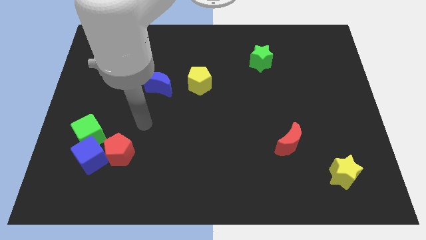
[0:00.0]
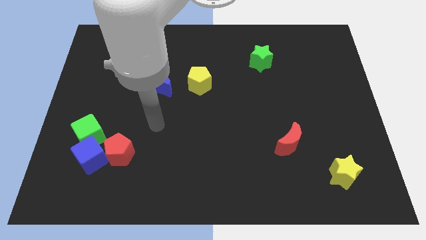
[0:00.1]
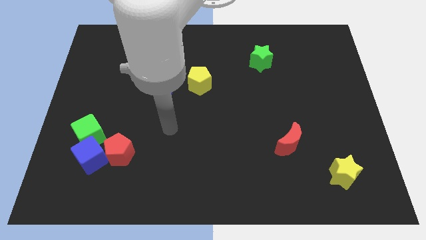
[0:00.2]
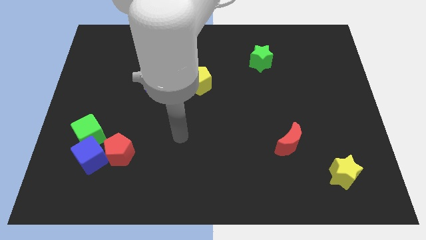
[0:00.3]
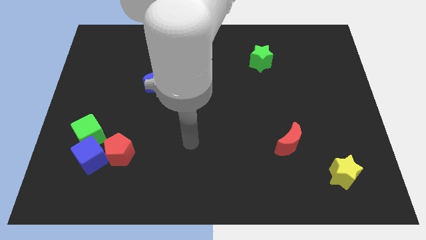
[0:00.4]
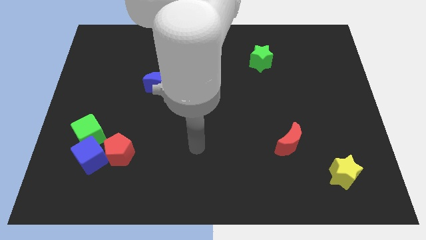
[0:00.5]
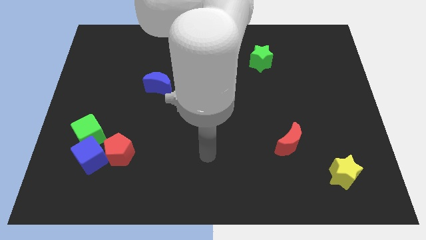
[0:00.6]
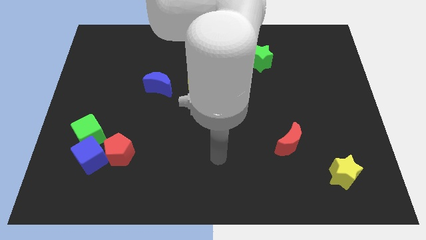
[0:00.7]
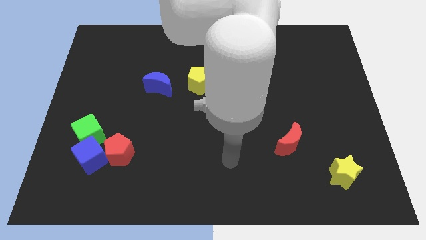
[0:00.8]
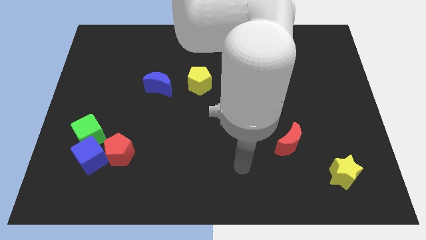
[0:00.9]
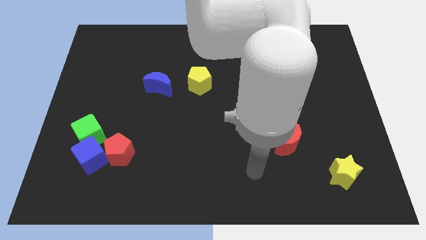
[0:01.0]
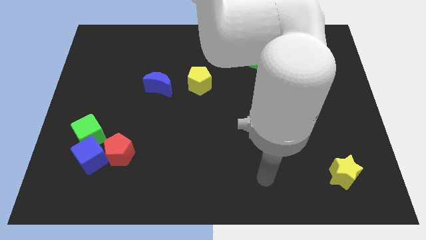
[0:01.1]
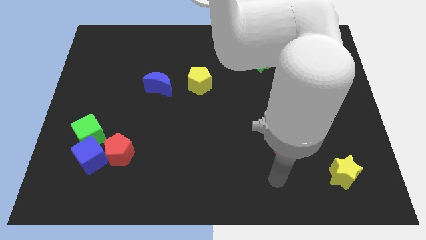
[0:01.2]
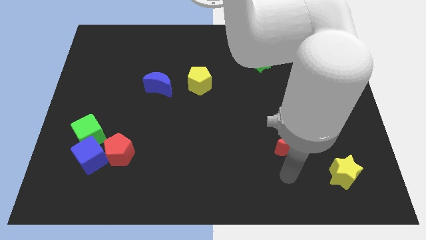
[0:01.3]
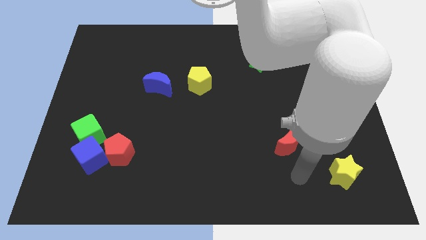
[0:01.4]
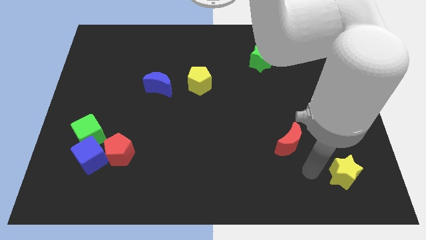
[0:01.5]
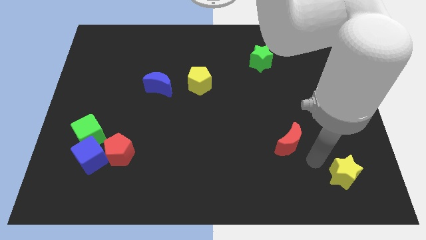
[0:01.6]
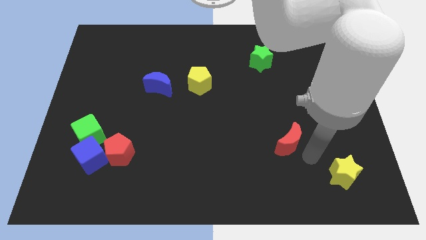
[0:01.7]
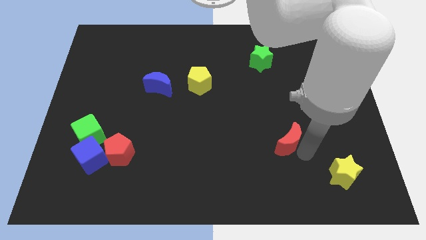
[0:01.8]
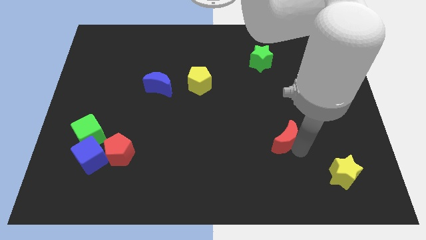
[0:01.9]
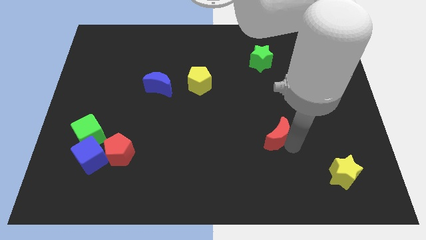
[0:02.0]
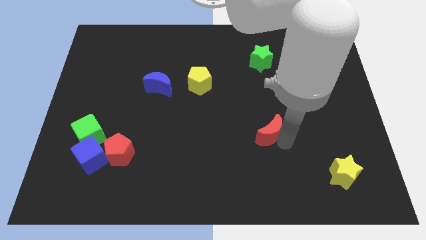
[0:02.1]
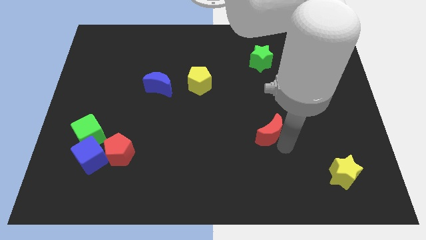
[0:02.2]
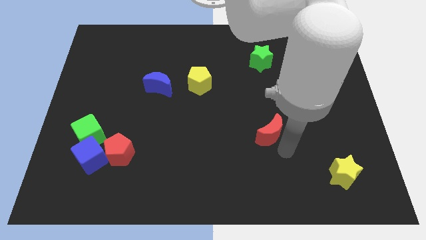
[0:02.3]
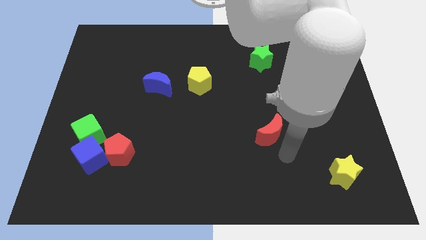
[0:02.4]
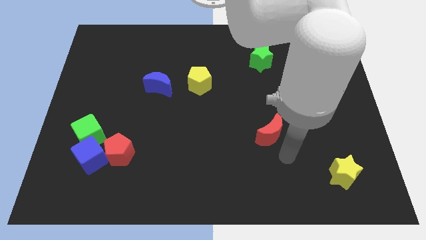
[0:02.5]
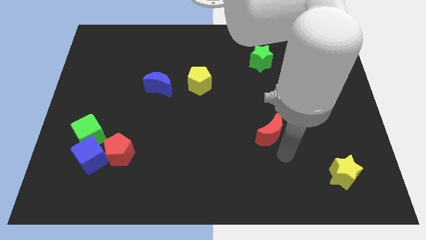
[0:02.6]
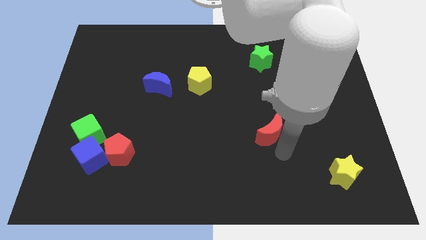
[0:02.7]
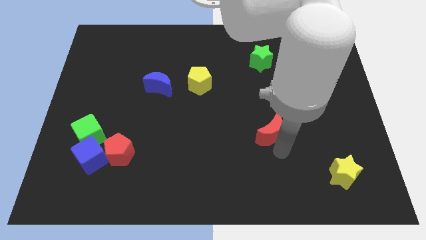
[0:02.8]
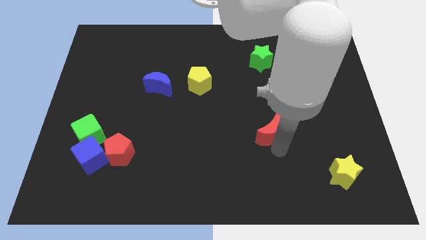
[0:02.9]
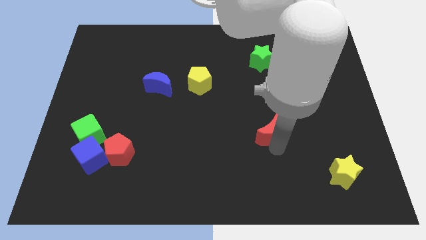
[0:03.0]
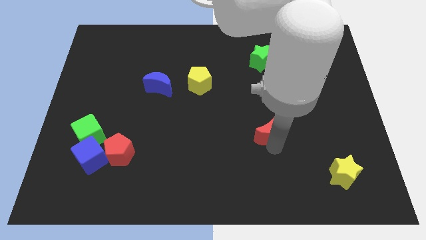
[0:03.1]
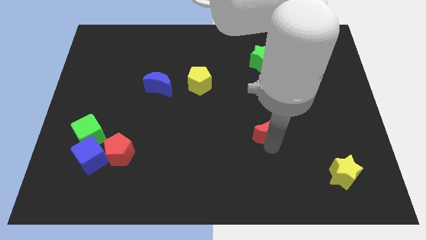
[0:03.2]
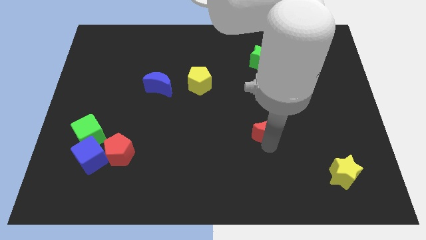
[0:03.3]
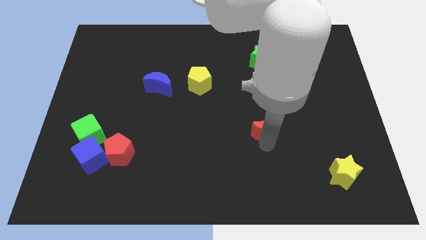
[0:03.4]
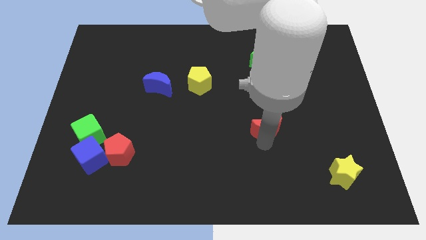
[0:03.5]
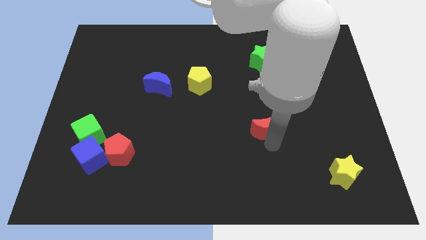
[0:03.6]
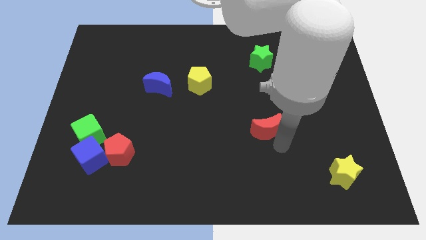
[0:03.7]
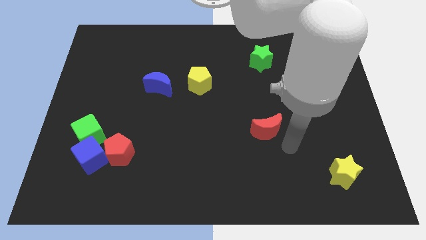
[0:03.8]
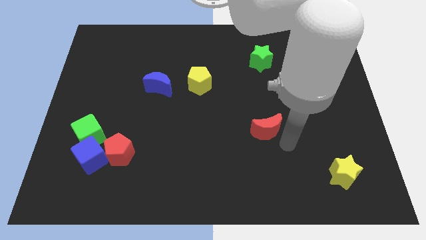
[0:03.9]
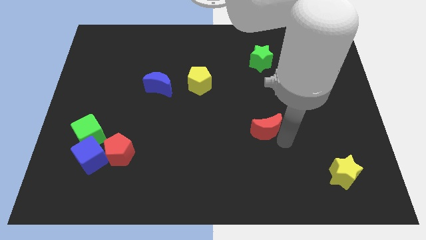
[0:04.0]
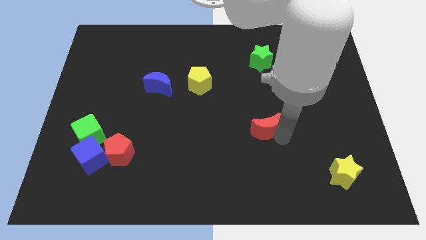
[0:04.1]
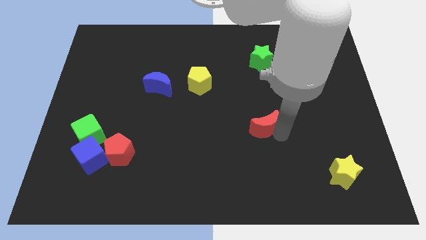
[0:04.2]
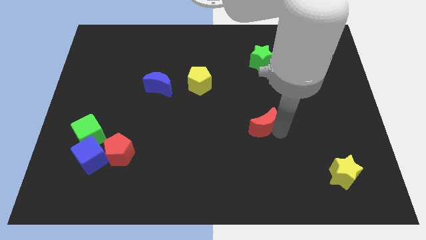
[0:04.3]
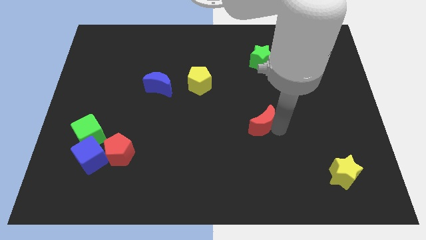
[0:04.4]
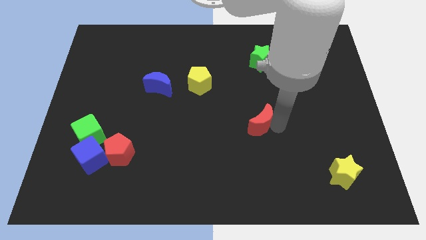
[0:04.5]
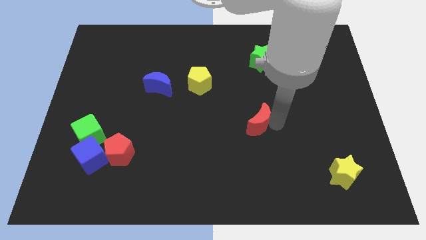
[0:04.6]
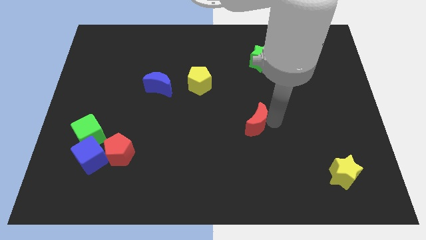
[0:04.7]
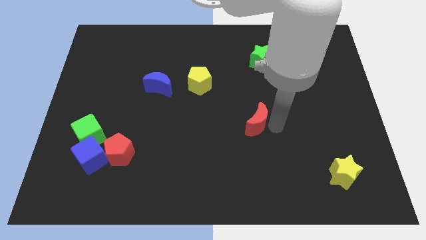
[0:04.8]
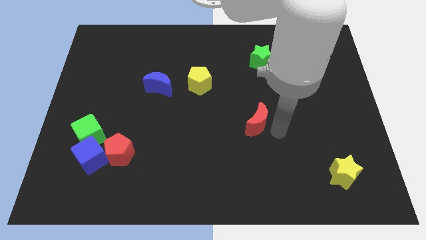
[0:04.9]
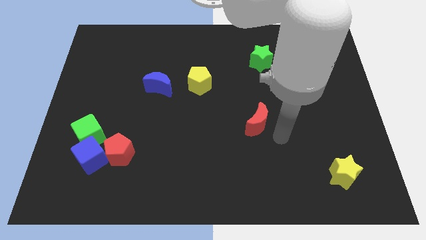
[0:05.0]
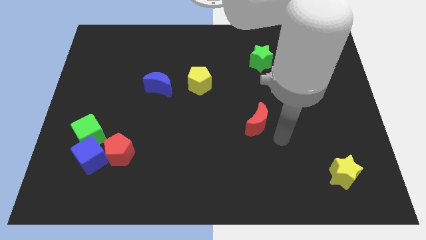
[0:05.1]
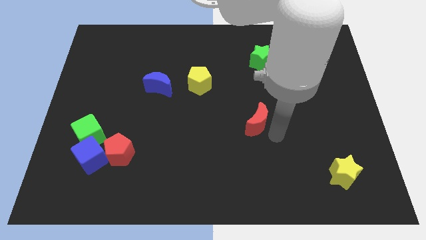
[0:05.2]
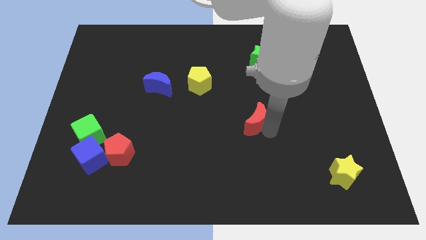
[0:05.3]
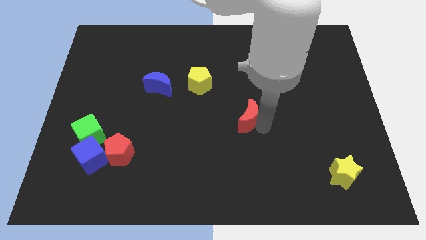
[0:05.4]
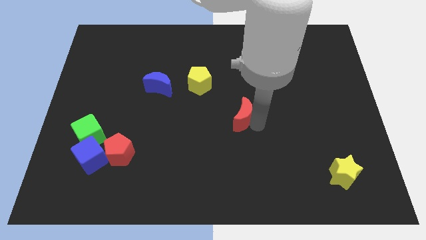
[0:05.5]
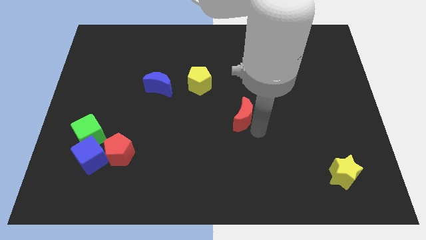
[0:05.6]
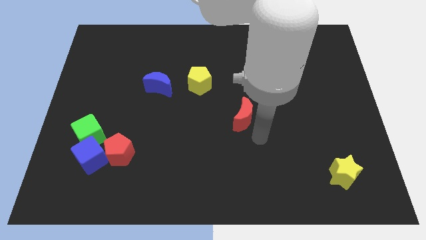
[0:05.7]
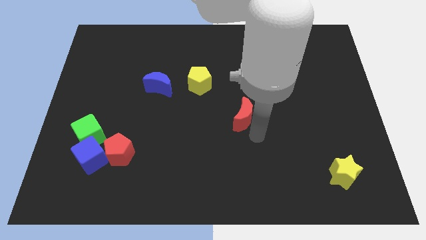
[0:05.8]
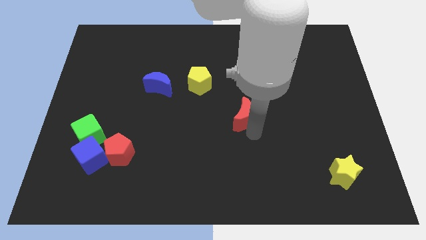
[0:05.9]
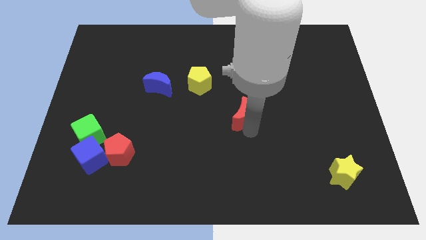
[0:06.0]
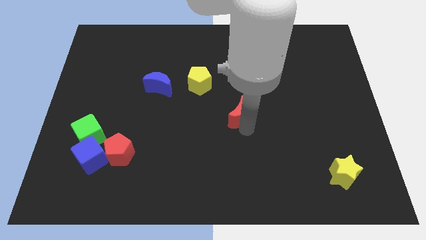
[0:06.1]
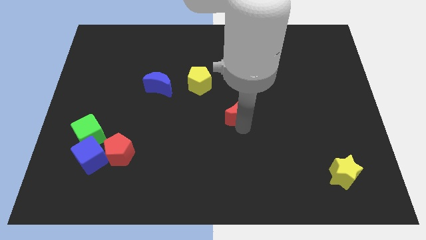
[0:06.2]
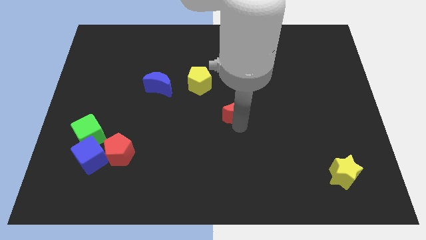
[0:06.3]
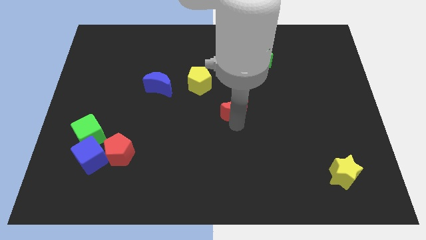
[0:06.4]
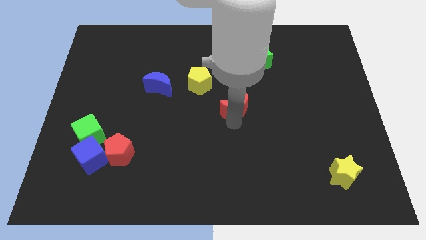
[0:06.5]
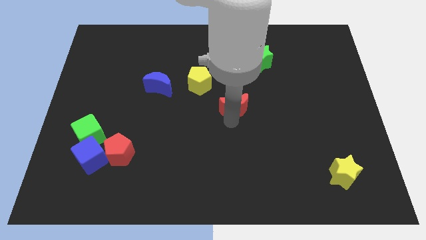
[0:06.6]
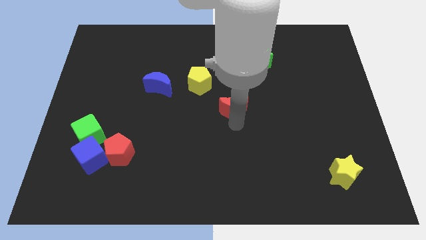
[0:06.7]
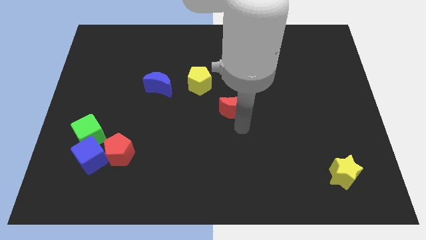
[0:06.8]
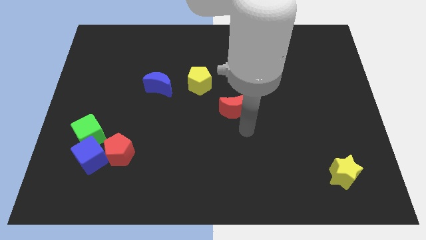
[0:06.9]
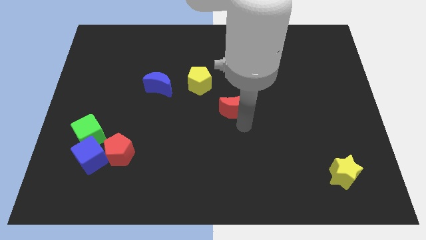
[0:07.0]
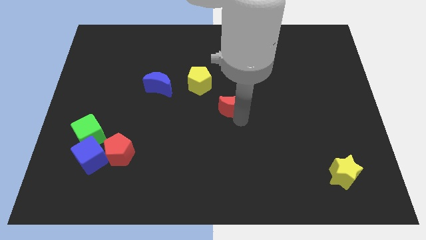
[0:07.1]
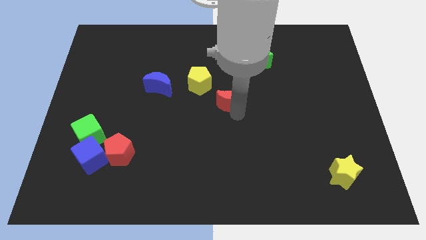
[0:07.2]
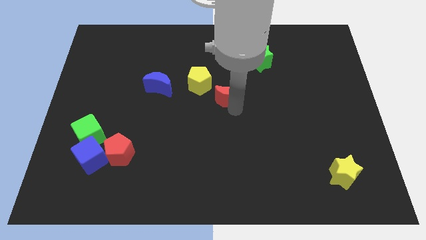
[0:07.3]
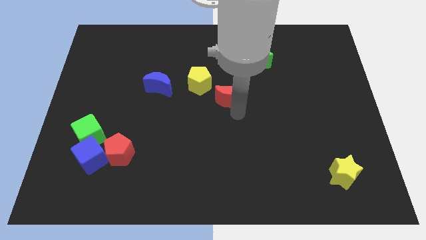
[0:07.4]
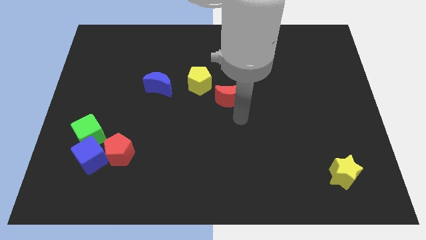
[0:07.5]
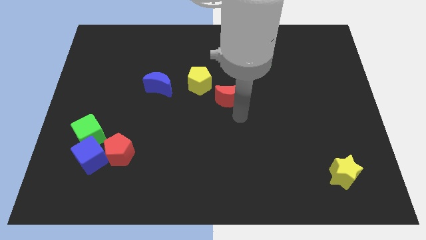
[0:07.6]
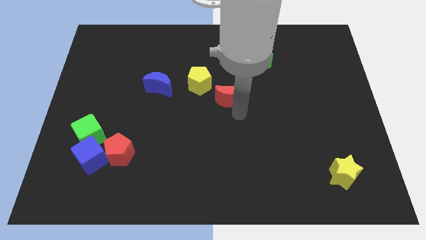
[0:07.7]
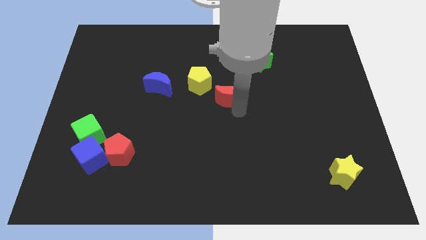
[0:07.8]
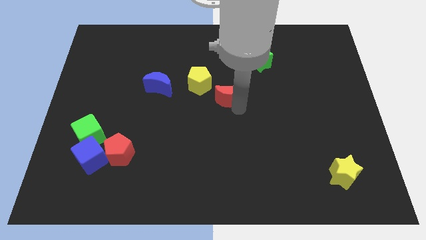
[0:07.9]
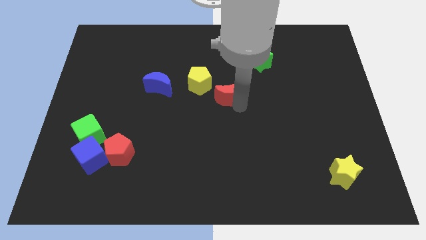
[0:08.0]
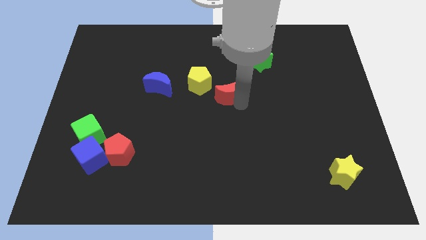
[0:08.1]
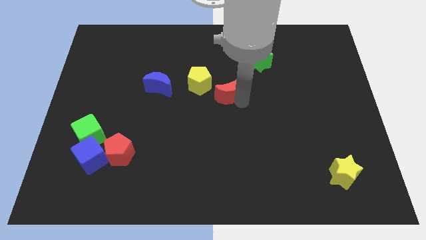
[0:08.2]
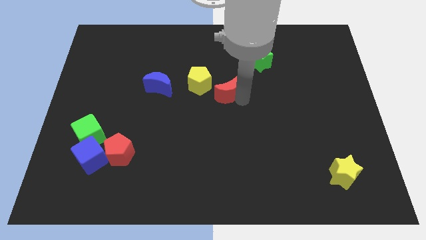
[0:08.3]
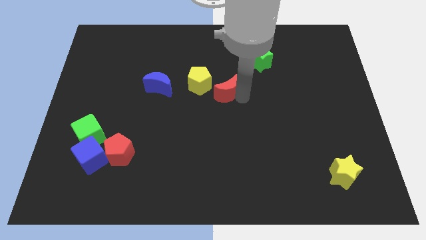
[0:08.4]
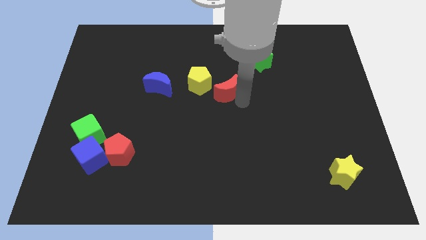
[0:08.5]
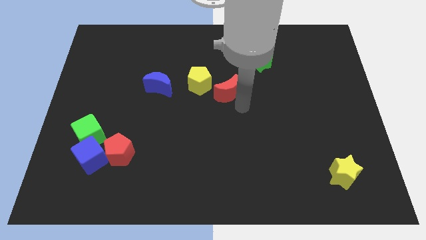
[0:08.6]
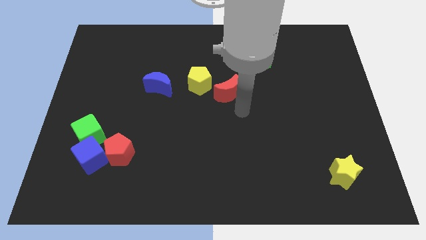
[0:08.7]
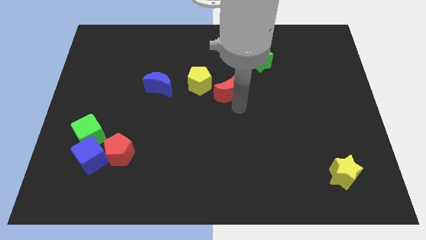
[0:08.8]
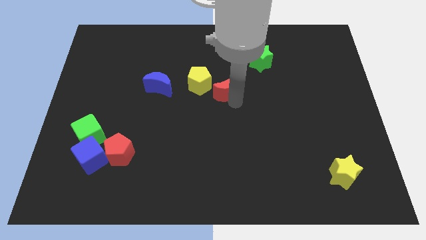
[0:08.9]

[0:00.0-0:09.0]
slide the red moon upwards and then left
